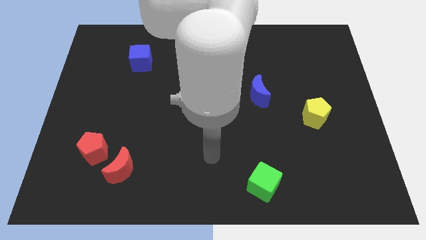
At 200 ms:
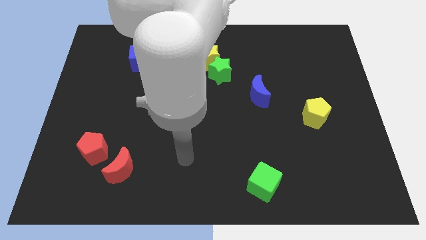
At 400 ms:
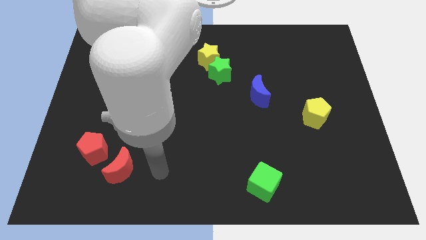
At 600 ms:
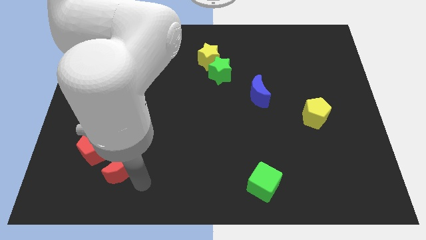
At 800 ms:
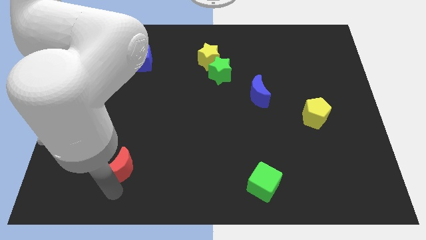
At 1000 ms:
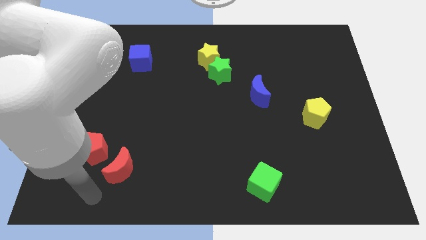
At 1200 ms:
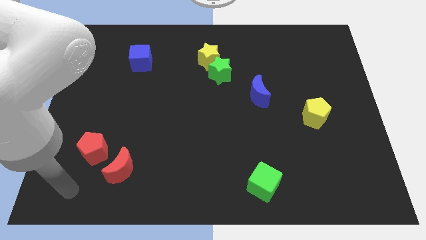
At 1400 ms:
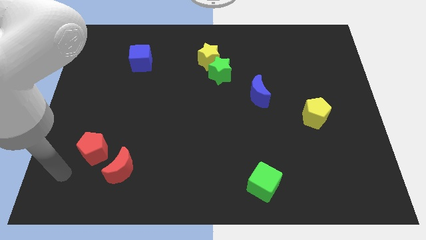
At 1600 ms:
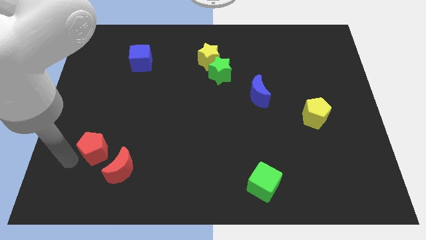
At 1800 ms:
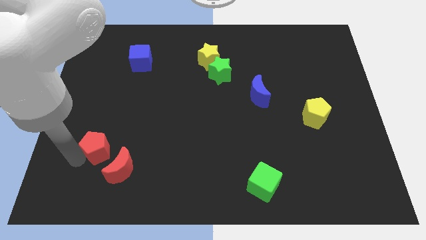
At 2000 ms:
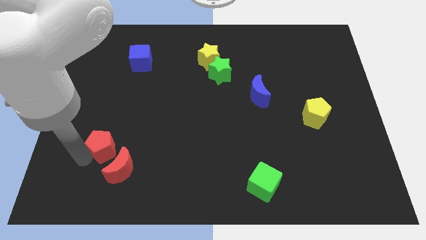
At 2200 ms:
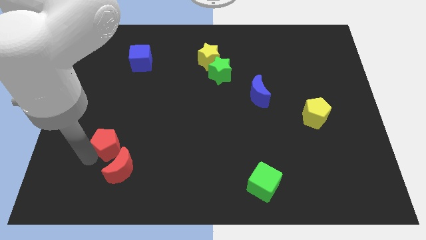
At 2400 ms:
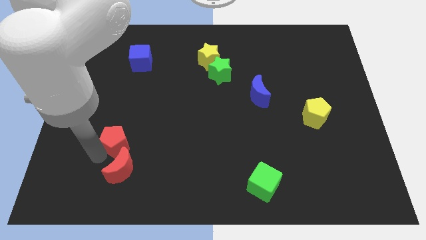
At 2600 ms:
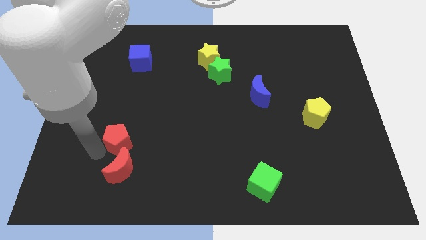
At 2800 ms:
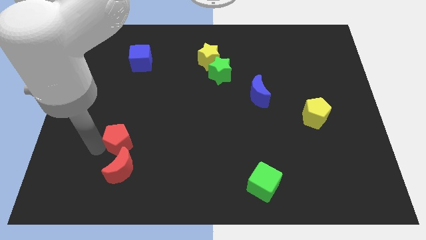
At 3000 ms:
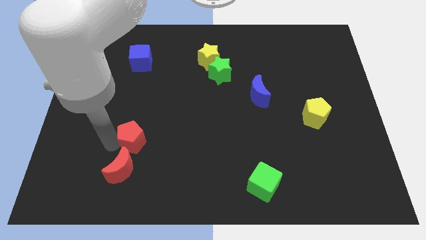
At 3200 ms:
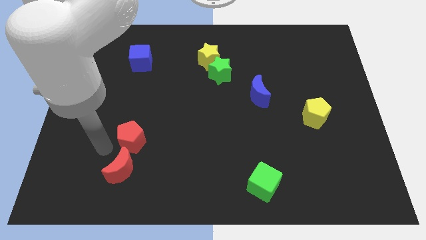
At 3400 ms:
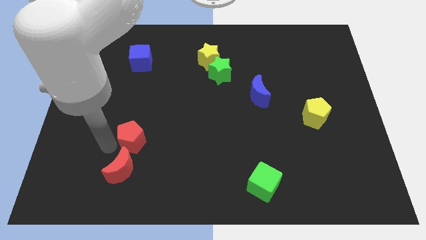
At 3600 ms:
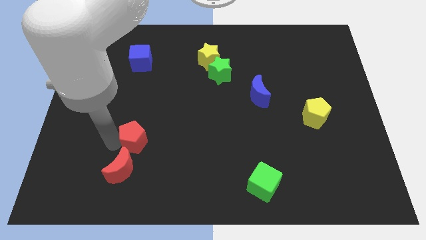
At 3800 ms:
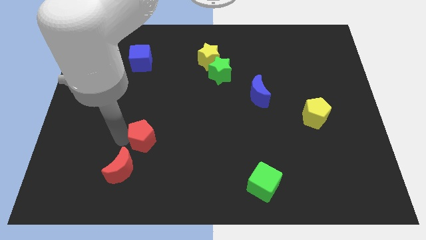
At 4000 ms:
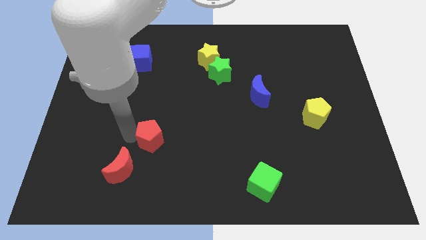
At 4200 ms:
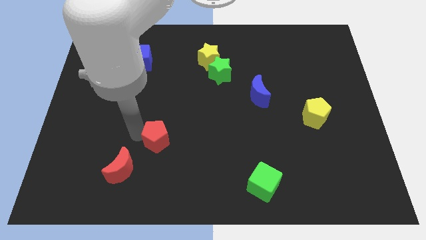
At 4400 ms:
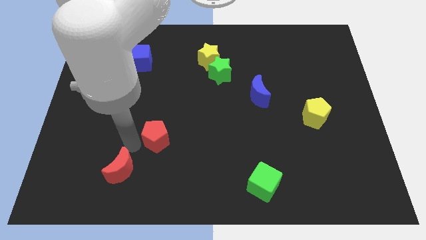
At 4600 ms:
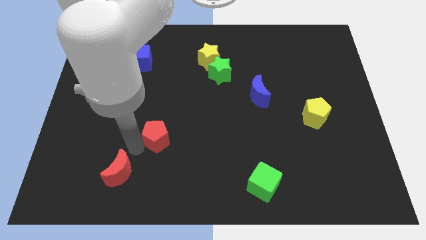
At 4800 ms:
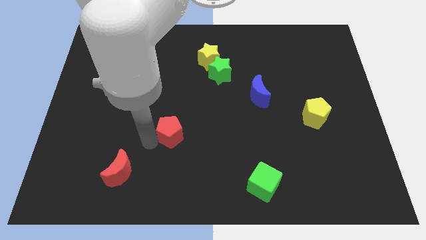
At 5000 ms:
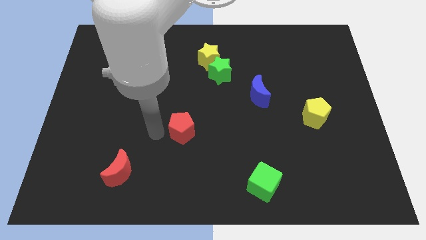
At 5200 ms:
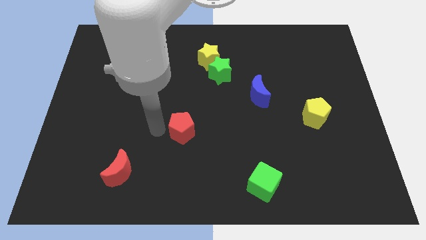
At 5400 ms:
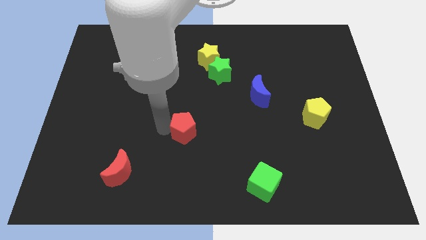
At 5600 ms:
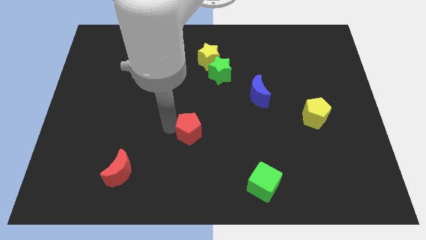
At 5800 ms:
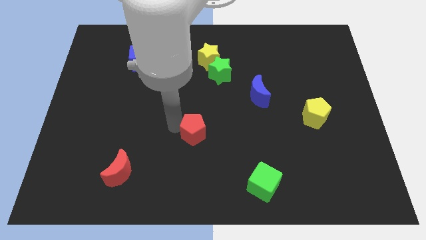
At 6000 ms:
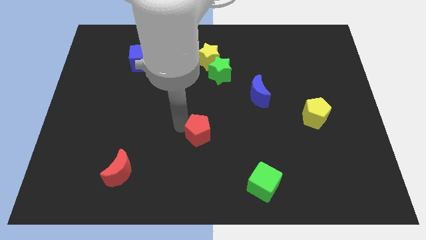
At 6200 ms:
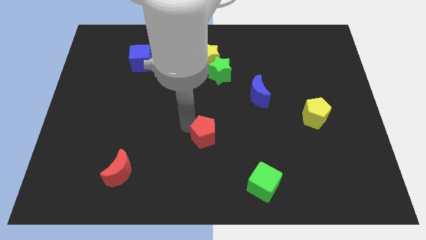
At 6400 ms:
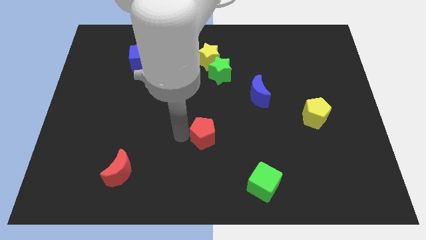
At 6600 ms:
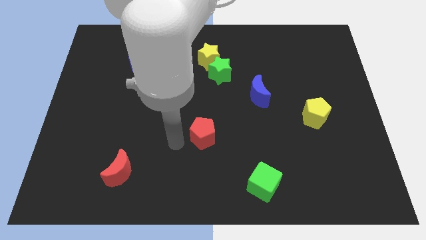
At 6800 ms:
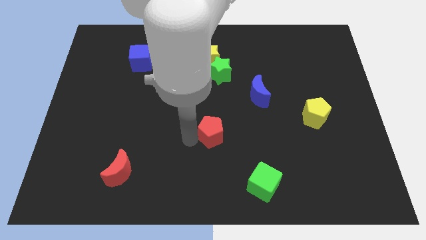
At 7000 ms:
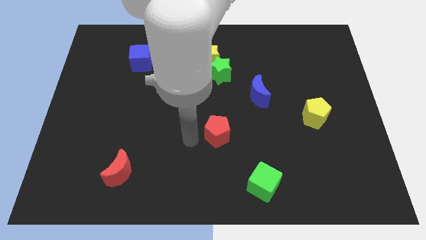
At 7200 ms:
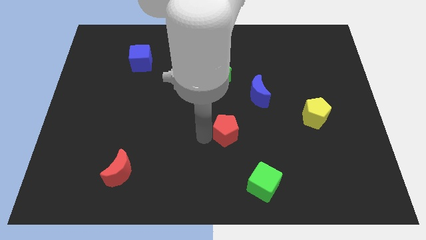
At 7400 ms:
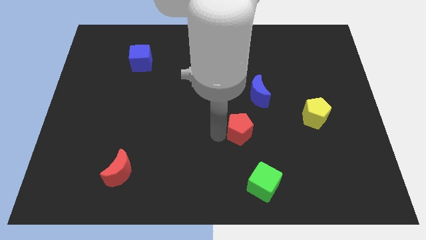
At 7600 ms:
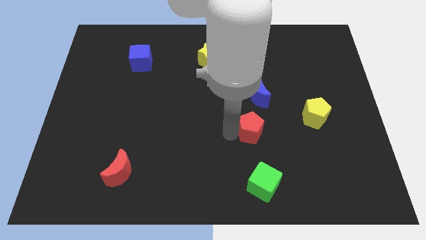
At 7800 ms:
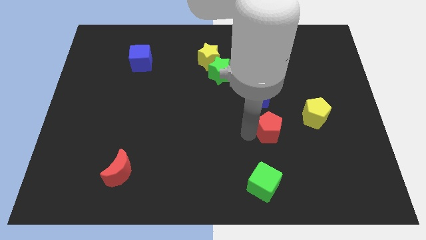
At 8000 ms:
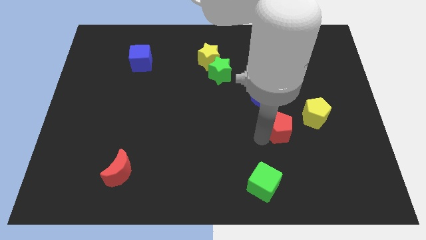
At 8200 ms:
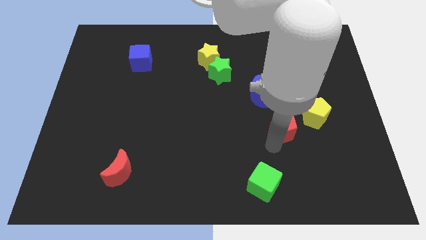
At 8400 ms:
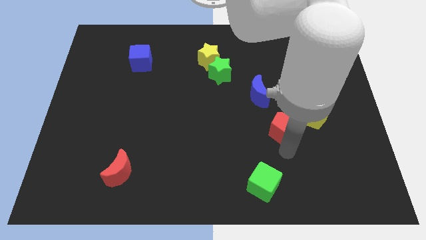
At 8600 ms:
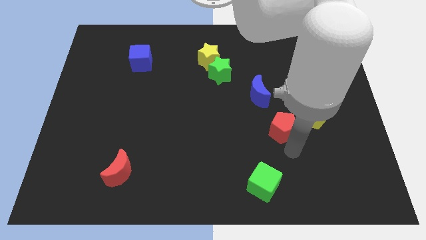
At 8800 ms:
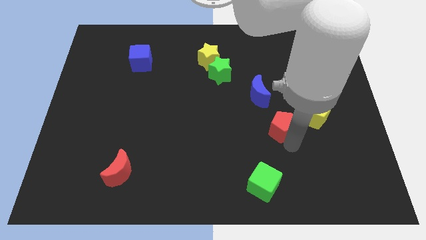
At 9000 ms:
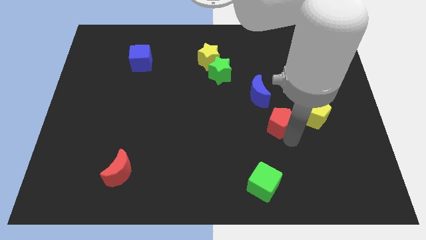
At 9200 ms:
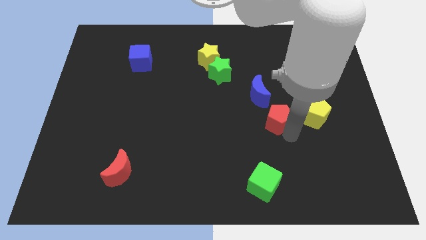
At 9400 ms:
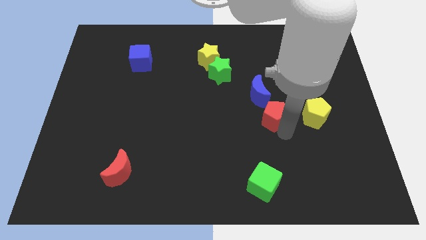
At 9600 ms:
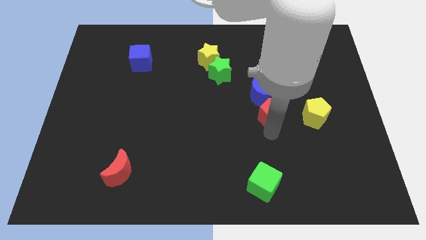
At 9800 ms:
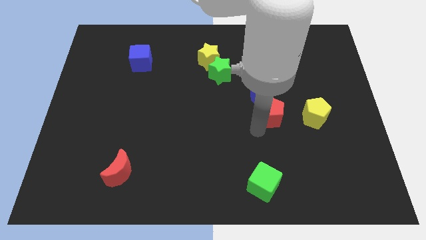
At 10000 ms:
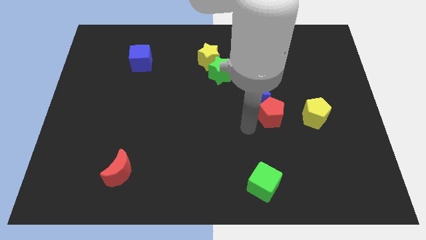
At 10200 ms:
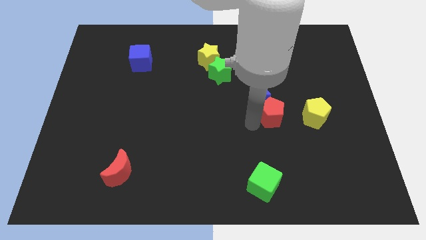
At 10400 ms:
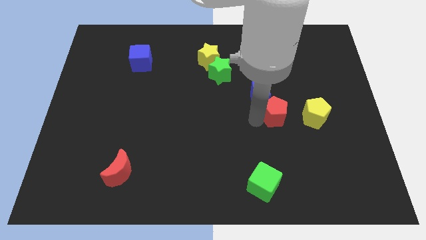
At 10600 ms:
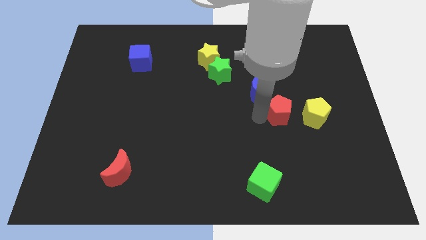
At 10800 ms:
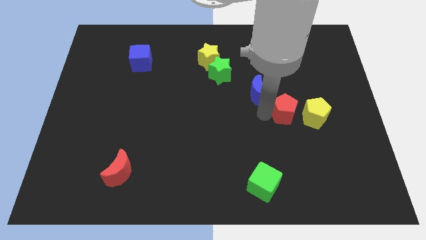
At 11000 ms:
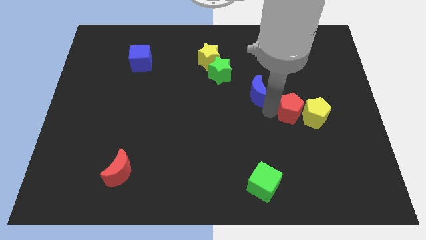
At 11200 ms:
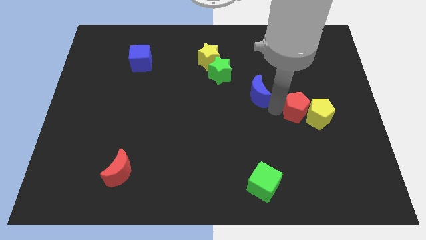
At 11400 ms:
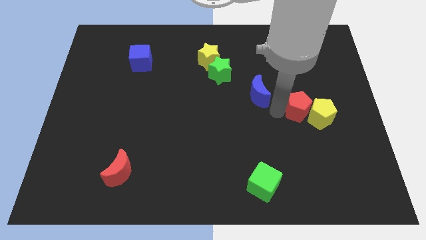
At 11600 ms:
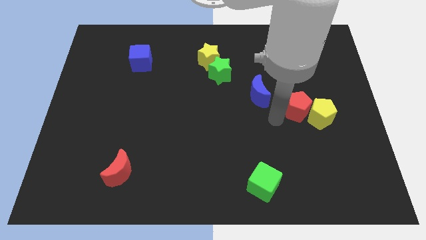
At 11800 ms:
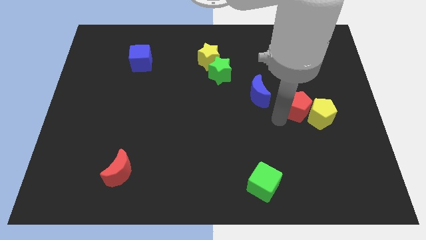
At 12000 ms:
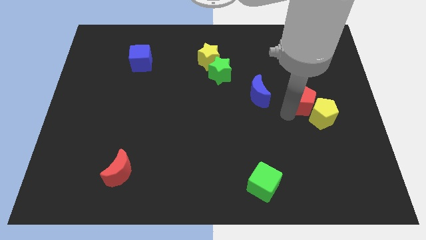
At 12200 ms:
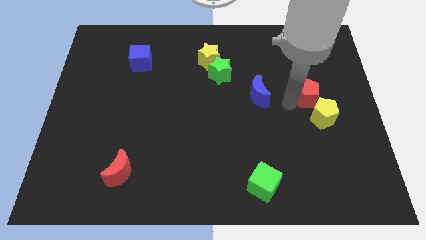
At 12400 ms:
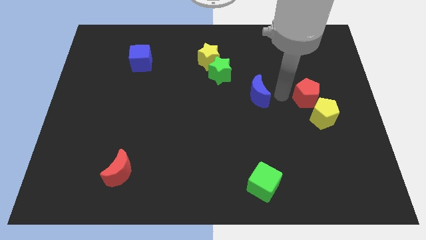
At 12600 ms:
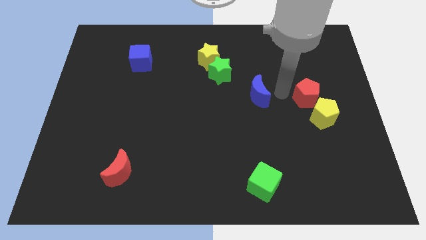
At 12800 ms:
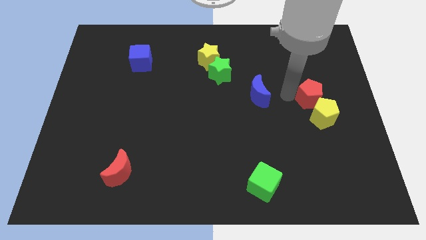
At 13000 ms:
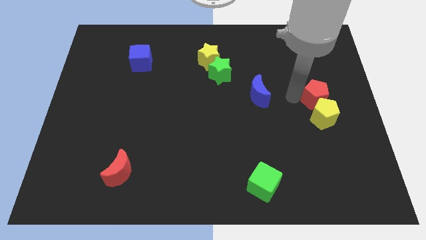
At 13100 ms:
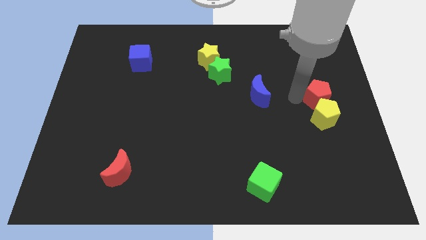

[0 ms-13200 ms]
slide the red pentagon to the right side
